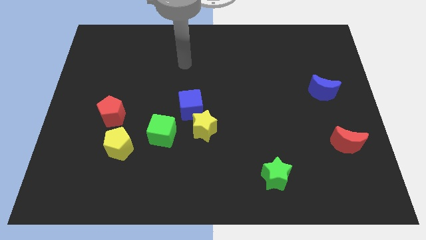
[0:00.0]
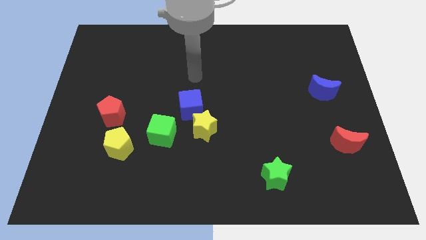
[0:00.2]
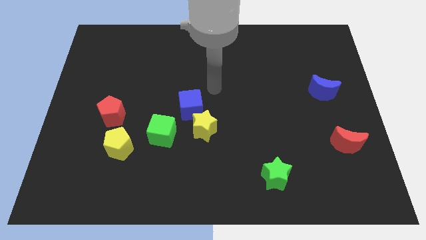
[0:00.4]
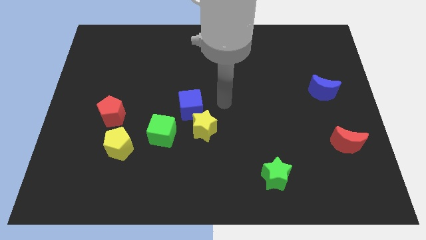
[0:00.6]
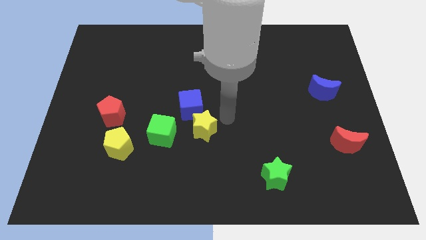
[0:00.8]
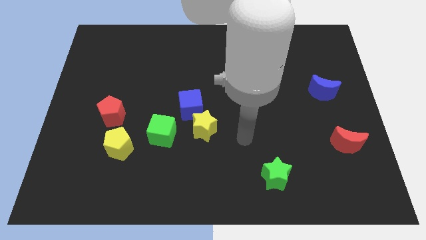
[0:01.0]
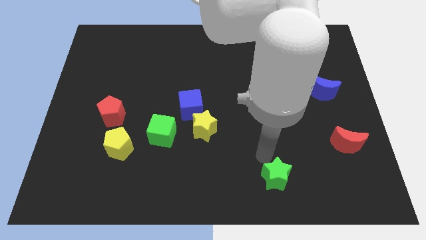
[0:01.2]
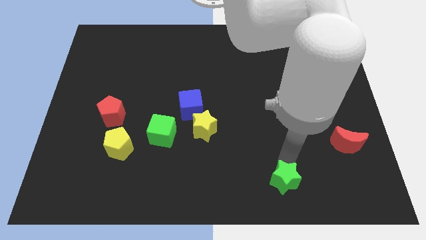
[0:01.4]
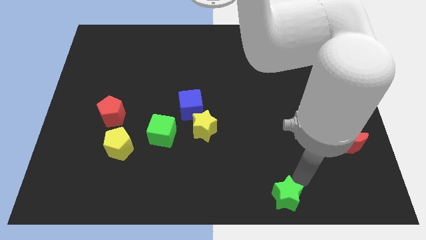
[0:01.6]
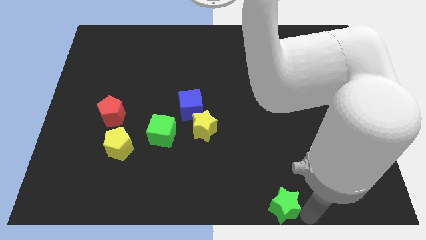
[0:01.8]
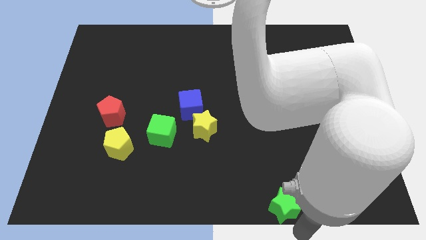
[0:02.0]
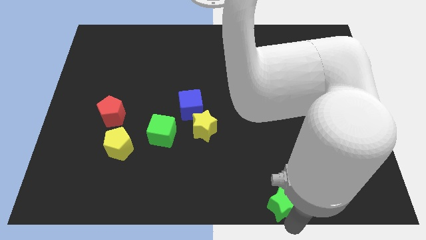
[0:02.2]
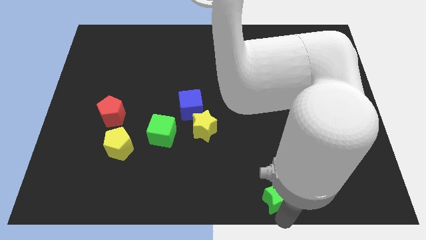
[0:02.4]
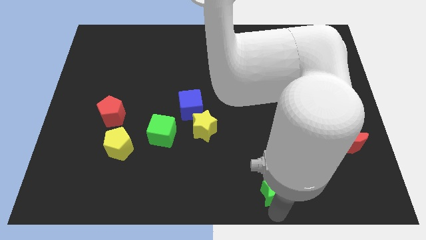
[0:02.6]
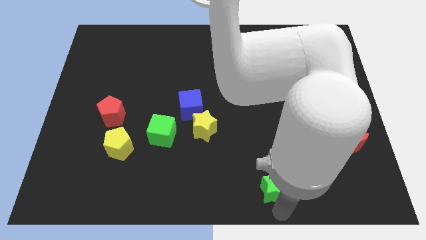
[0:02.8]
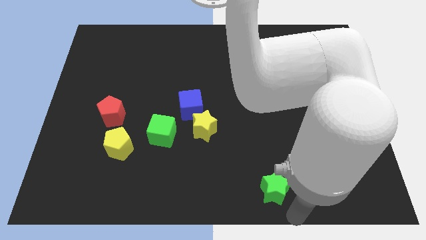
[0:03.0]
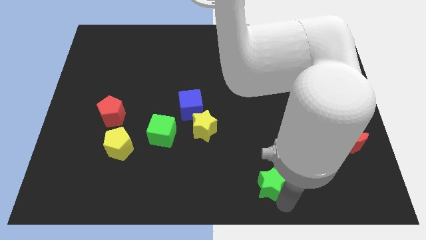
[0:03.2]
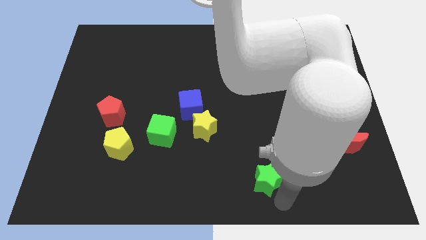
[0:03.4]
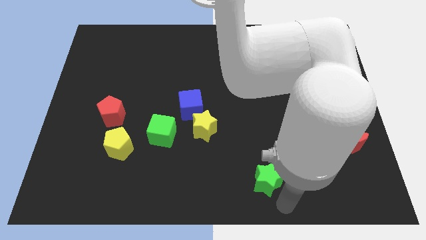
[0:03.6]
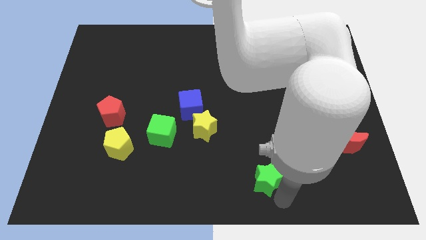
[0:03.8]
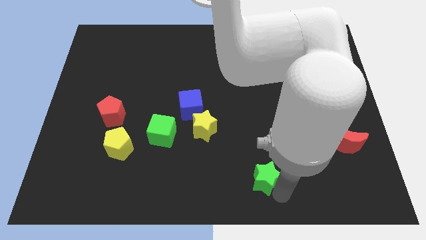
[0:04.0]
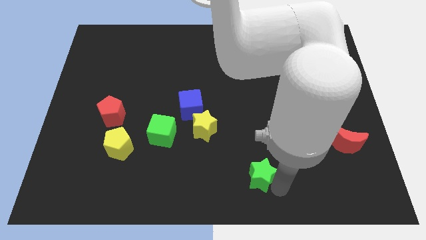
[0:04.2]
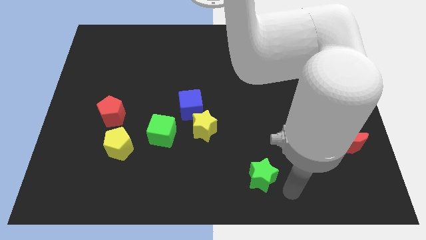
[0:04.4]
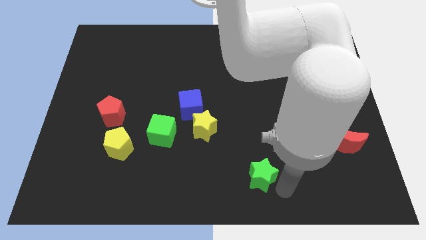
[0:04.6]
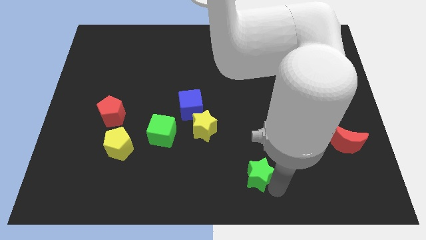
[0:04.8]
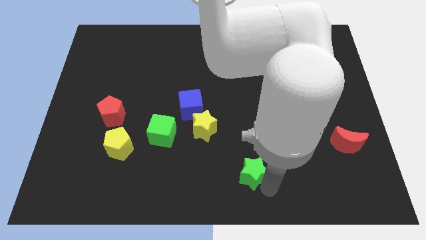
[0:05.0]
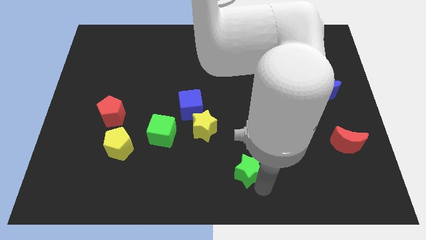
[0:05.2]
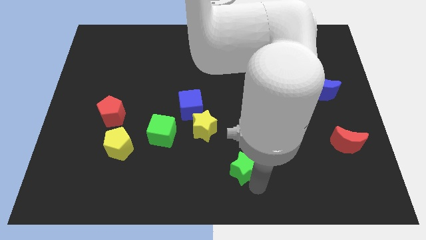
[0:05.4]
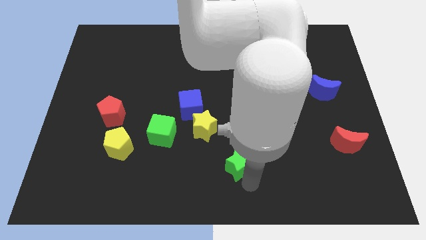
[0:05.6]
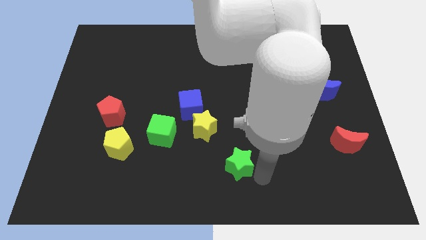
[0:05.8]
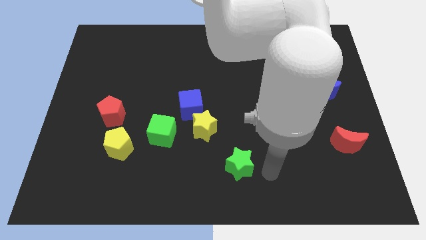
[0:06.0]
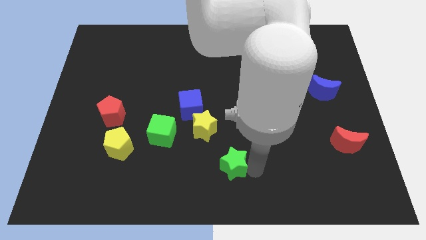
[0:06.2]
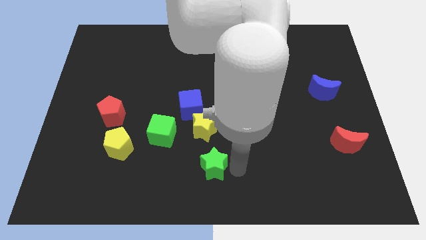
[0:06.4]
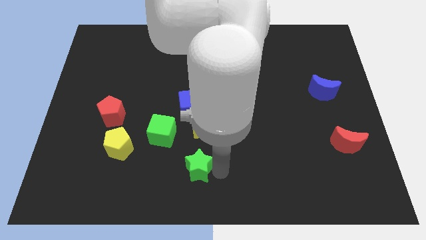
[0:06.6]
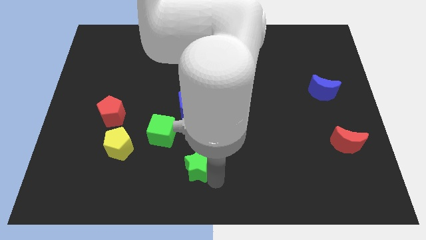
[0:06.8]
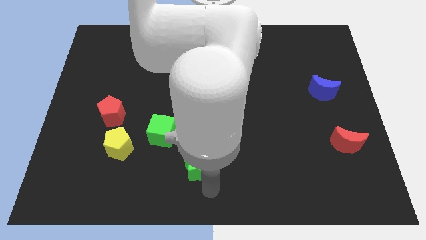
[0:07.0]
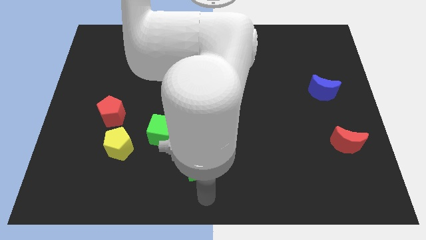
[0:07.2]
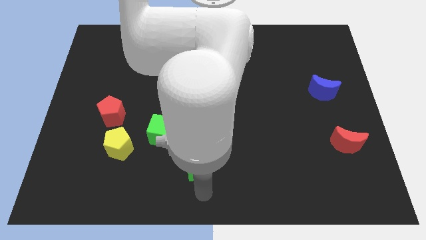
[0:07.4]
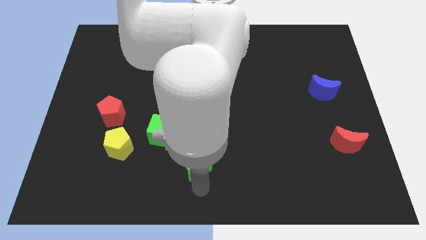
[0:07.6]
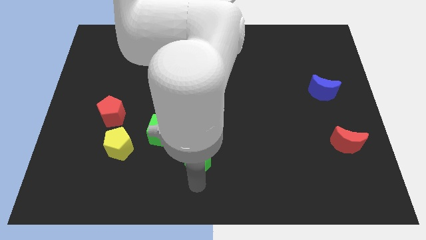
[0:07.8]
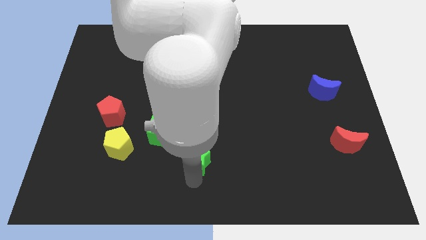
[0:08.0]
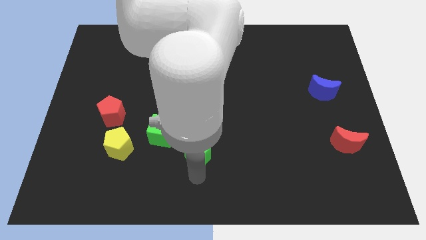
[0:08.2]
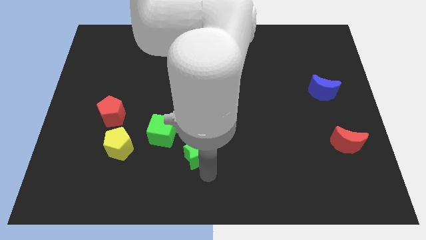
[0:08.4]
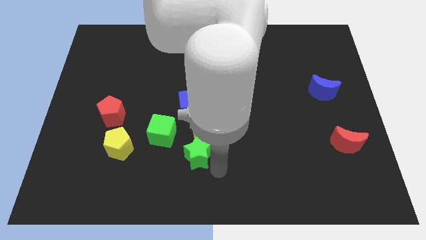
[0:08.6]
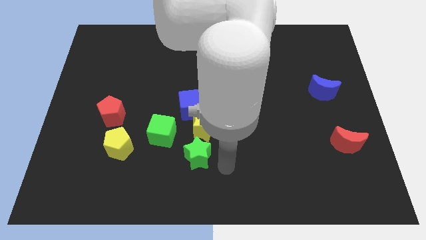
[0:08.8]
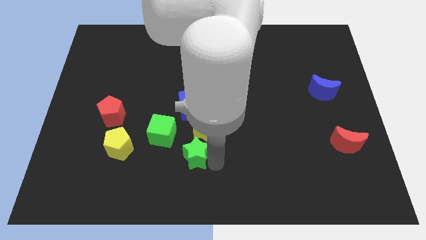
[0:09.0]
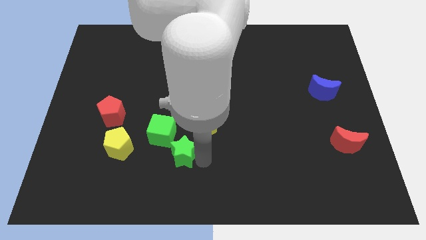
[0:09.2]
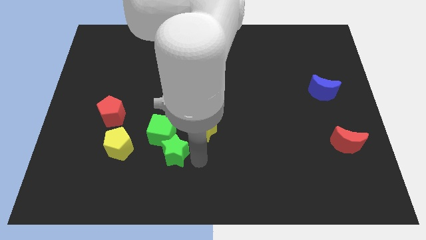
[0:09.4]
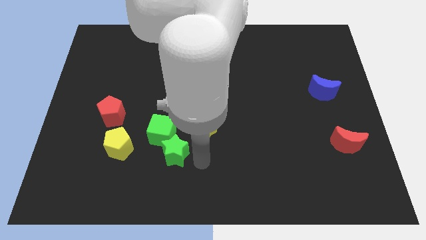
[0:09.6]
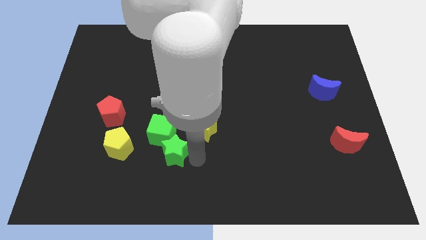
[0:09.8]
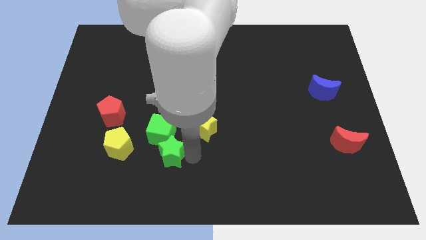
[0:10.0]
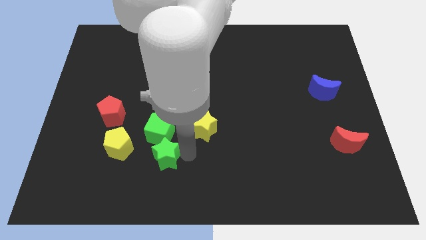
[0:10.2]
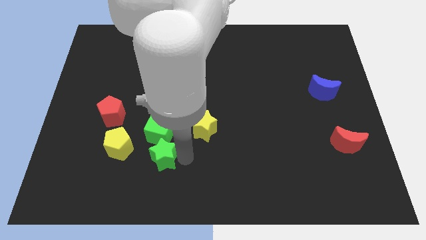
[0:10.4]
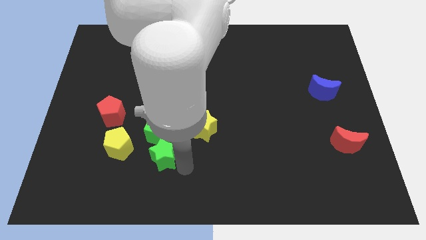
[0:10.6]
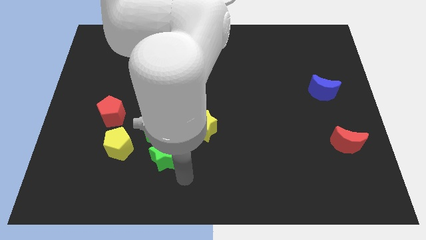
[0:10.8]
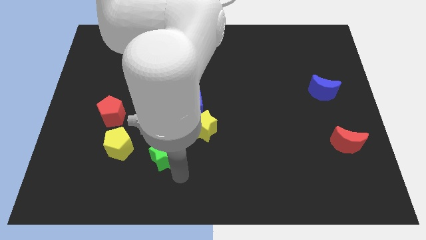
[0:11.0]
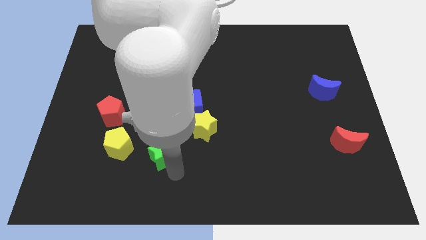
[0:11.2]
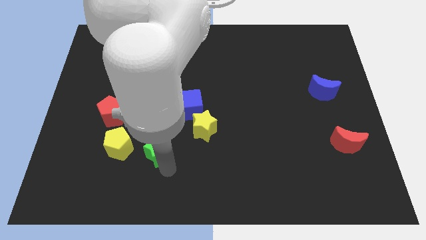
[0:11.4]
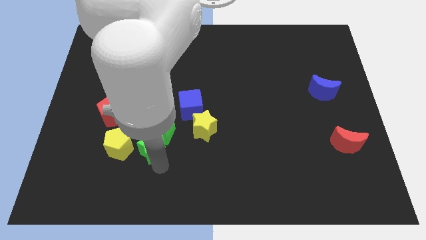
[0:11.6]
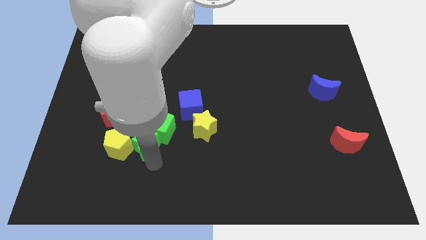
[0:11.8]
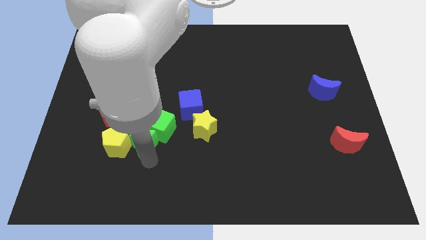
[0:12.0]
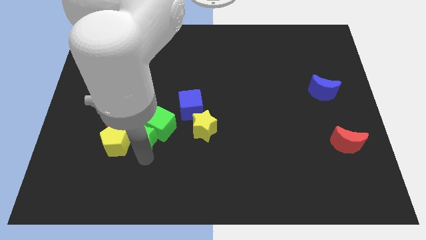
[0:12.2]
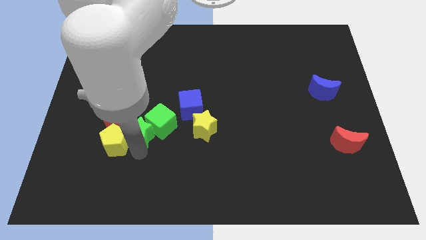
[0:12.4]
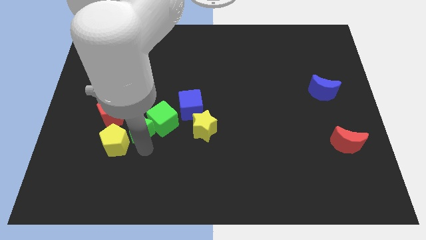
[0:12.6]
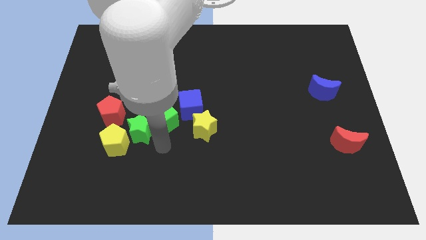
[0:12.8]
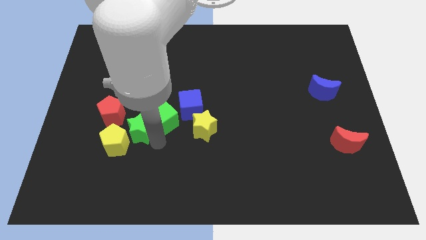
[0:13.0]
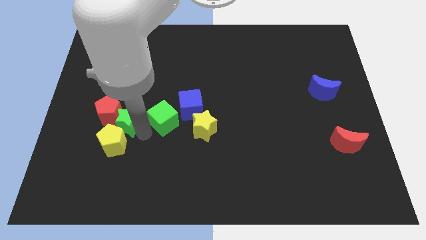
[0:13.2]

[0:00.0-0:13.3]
slide the green star close to the red pentagon

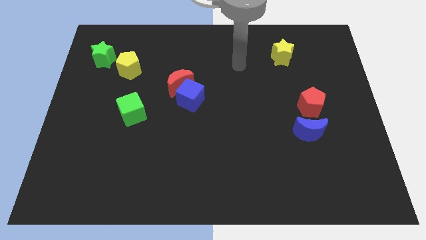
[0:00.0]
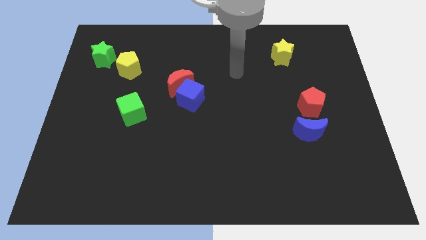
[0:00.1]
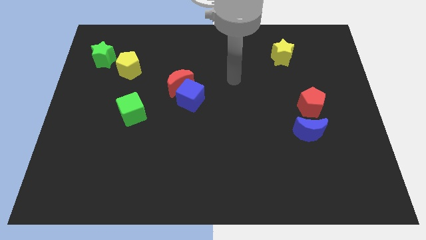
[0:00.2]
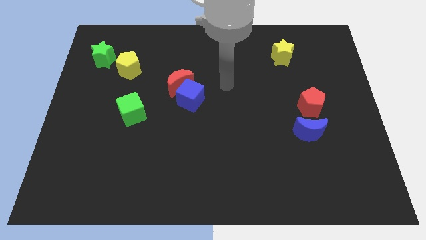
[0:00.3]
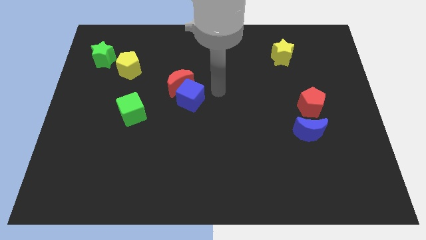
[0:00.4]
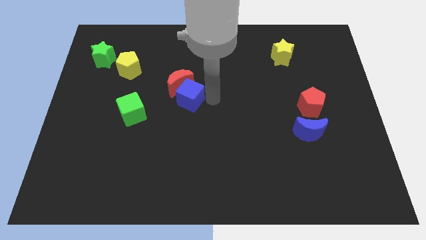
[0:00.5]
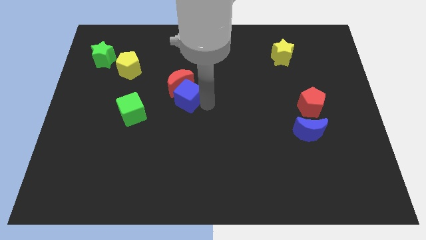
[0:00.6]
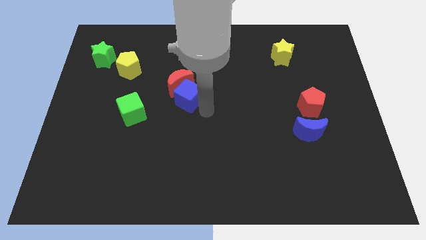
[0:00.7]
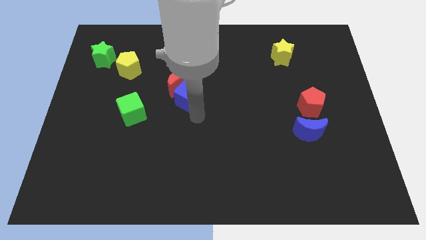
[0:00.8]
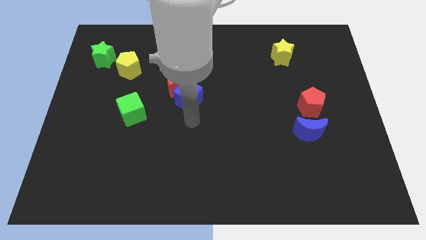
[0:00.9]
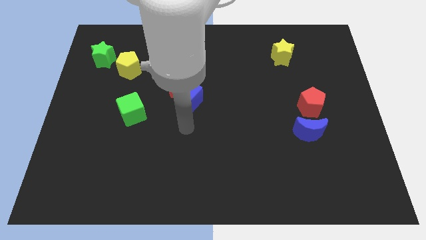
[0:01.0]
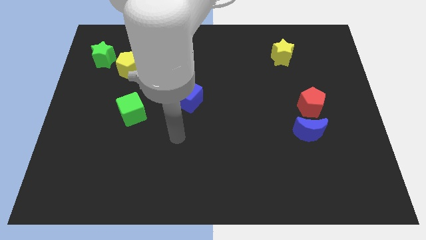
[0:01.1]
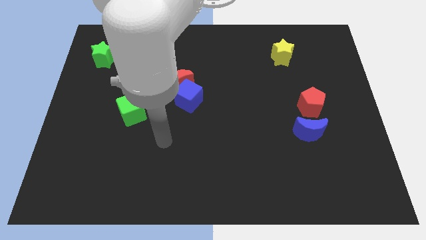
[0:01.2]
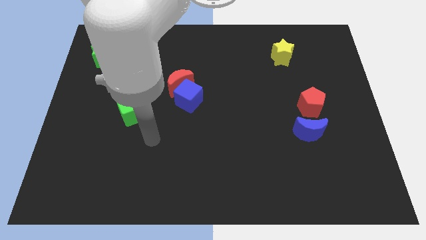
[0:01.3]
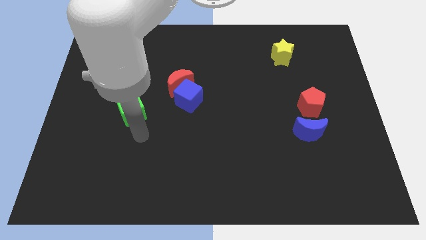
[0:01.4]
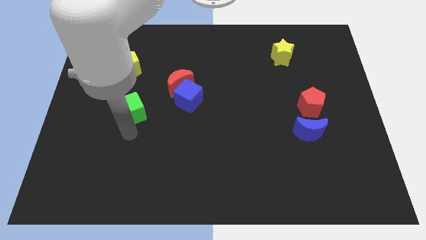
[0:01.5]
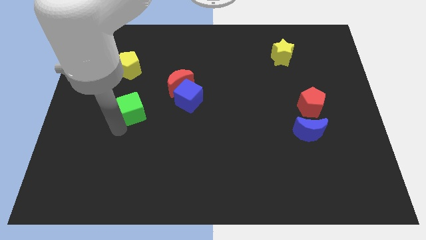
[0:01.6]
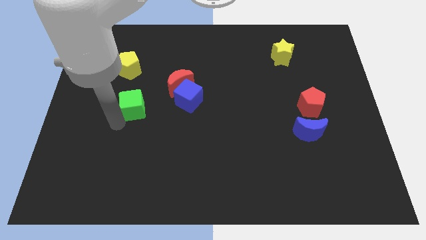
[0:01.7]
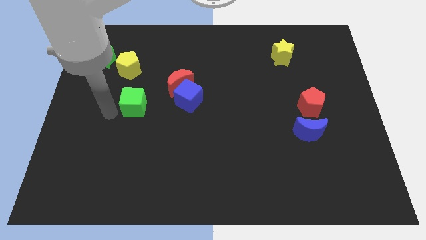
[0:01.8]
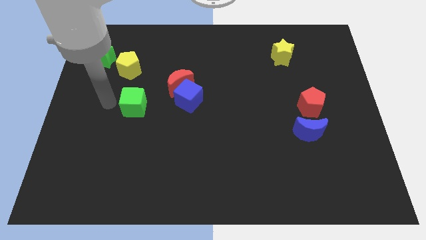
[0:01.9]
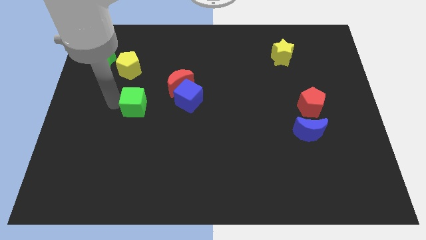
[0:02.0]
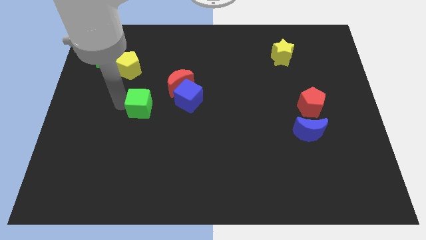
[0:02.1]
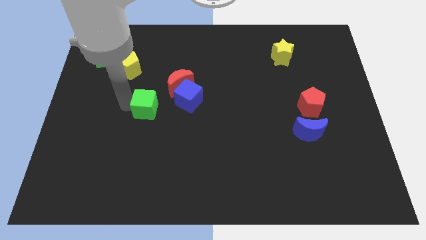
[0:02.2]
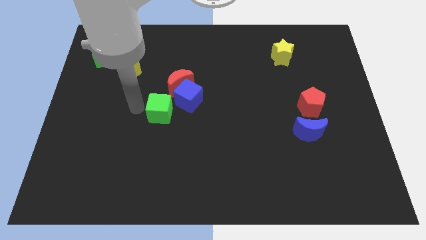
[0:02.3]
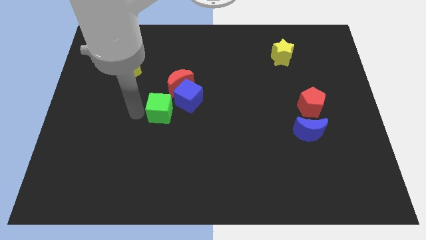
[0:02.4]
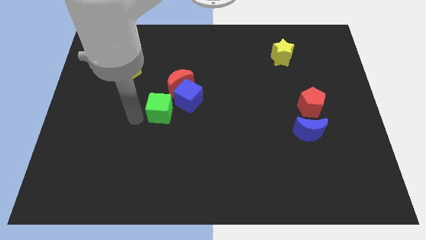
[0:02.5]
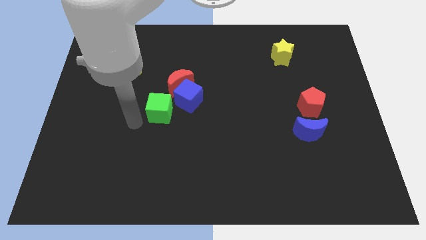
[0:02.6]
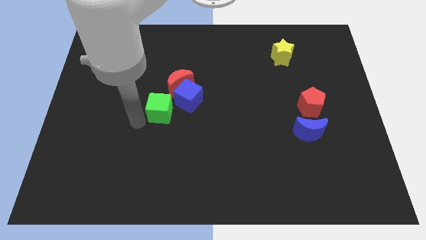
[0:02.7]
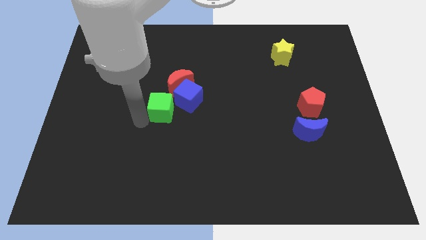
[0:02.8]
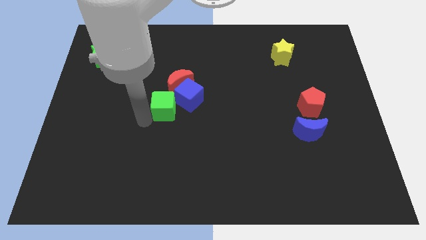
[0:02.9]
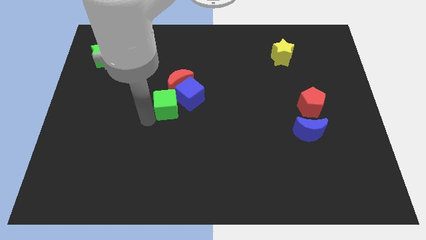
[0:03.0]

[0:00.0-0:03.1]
move the green cube close to the blue cube
